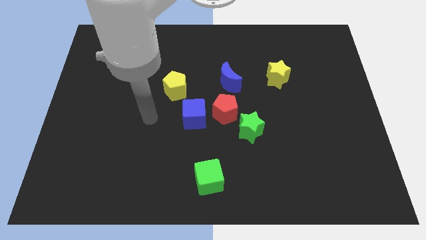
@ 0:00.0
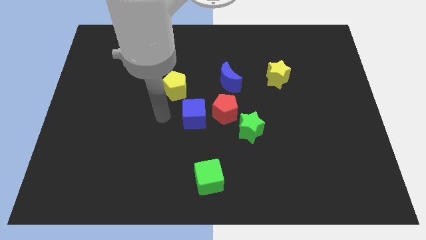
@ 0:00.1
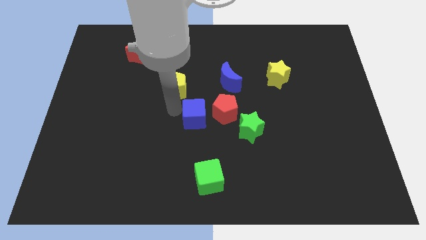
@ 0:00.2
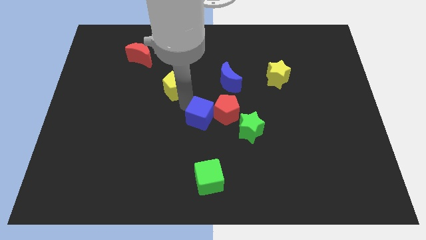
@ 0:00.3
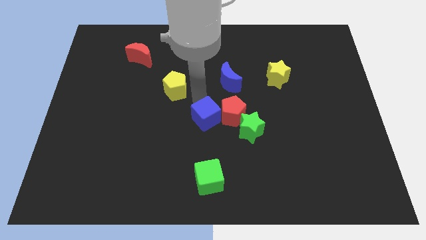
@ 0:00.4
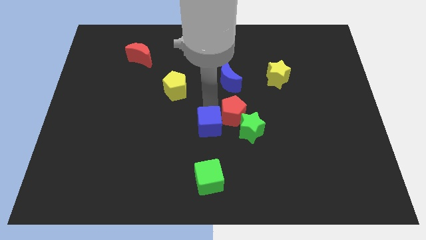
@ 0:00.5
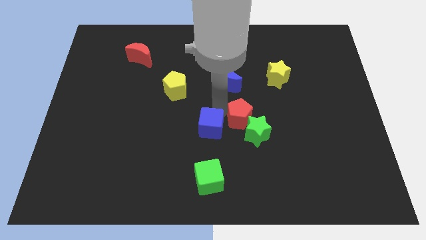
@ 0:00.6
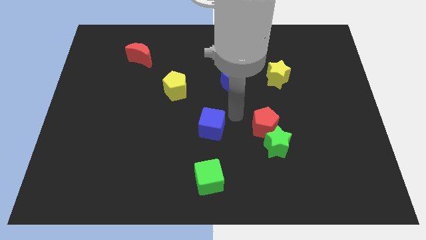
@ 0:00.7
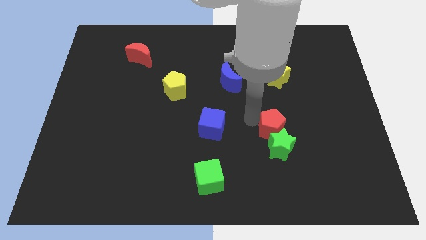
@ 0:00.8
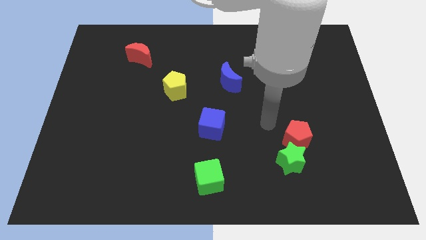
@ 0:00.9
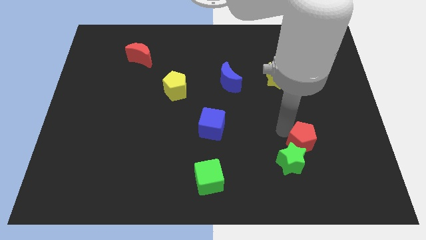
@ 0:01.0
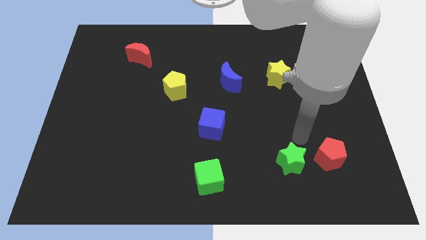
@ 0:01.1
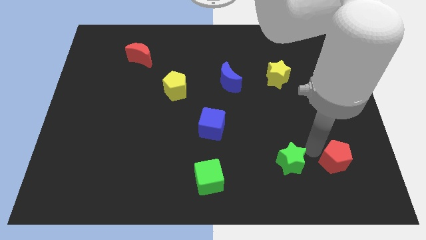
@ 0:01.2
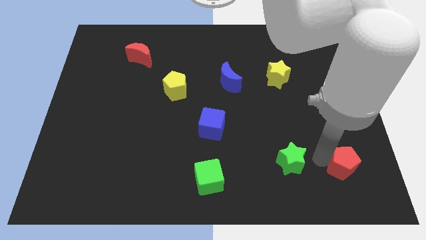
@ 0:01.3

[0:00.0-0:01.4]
pull the green star apart from the red pentagon

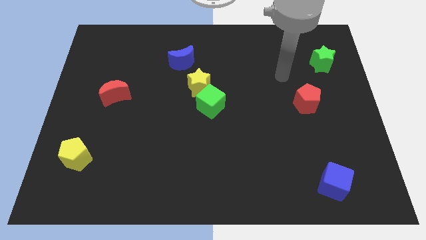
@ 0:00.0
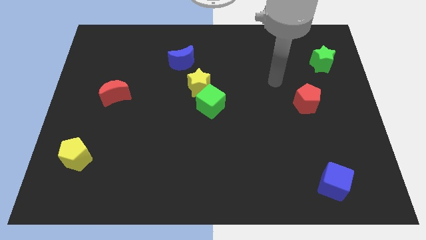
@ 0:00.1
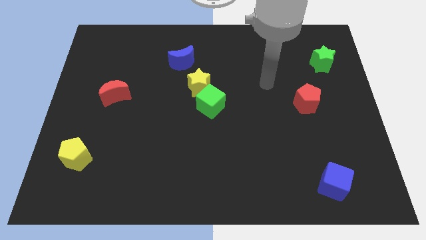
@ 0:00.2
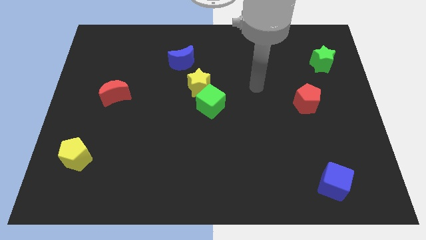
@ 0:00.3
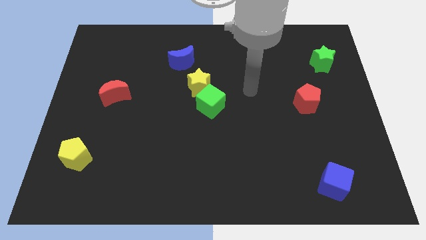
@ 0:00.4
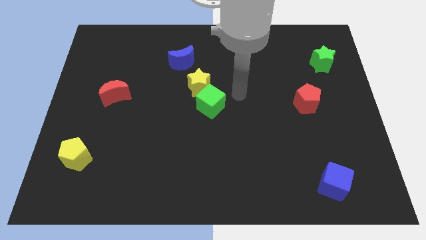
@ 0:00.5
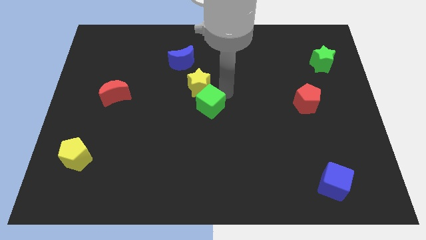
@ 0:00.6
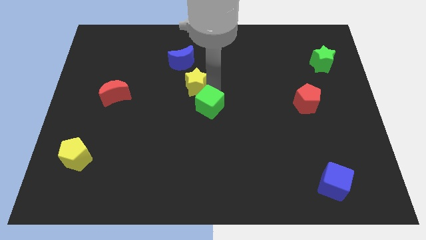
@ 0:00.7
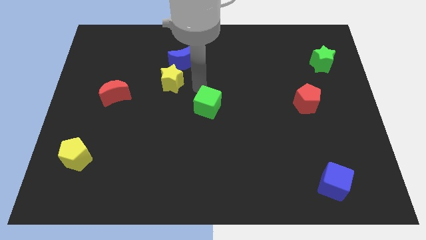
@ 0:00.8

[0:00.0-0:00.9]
pull the green cube apart from the yellow star

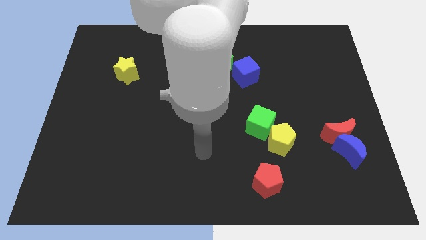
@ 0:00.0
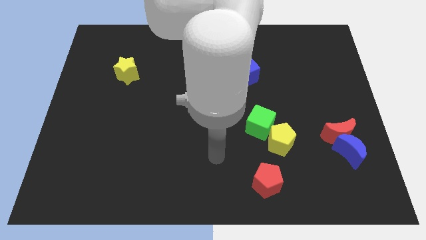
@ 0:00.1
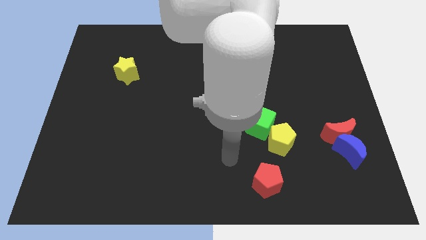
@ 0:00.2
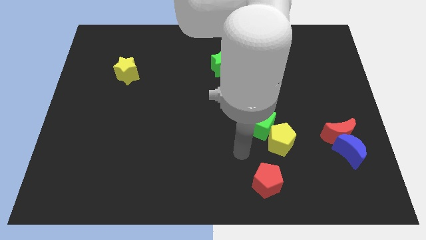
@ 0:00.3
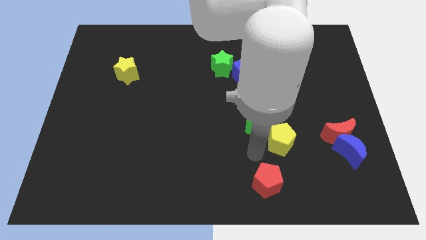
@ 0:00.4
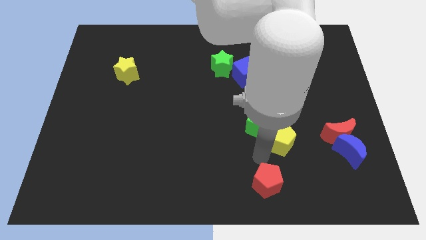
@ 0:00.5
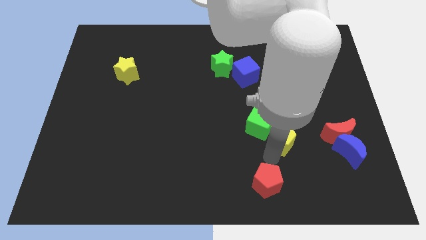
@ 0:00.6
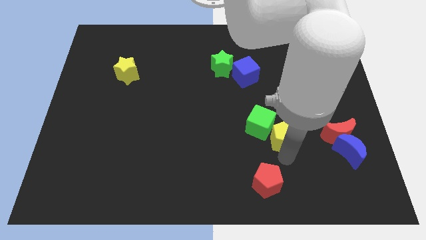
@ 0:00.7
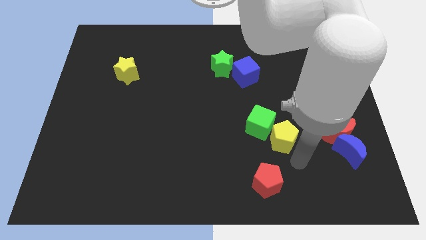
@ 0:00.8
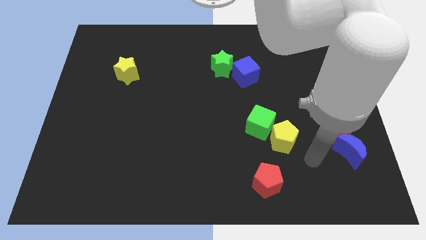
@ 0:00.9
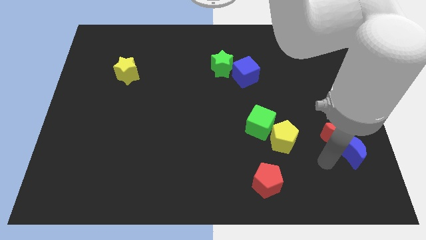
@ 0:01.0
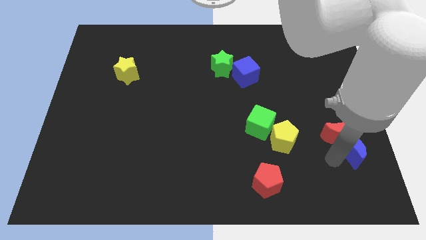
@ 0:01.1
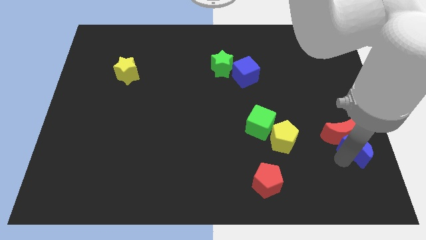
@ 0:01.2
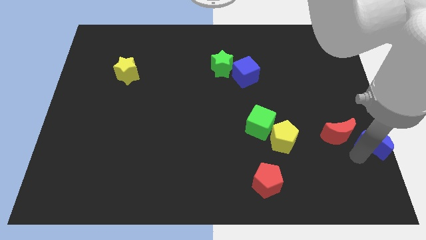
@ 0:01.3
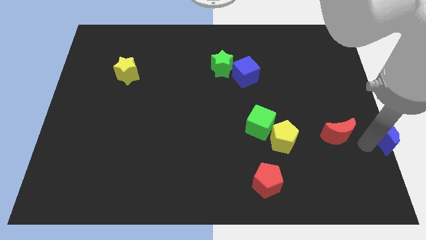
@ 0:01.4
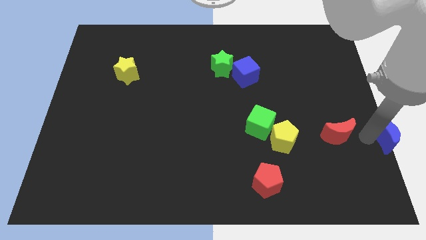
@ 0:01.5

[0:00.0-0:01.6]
move the red moon away from the blue moon

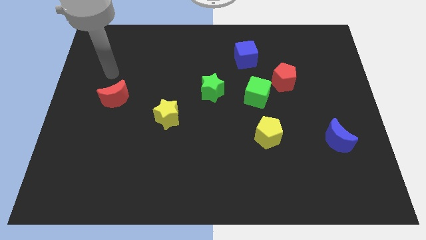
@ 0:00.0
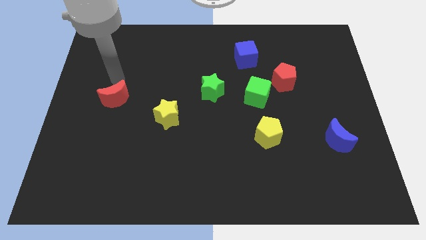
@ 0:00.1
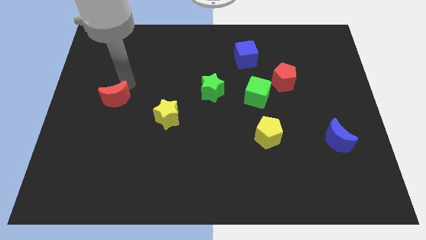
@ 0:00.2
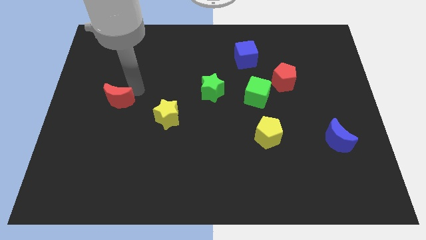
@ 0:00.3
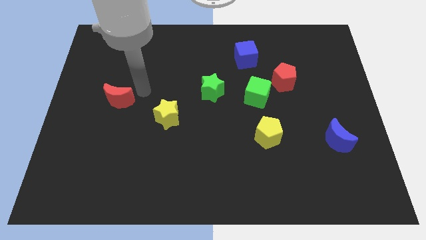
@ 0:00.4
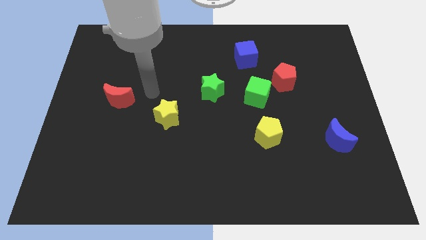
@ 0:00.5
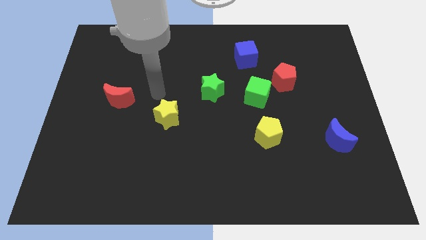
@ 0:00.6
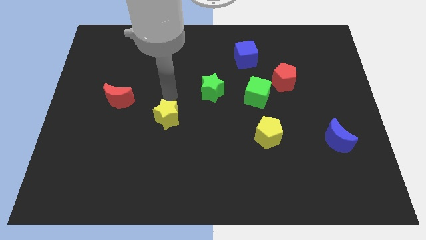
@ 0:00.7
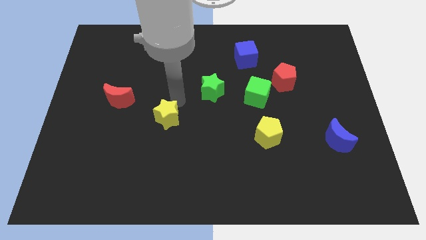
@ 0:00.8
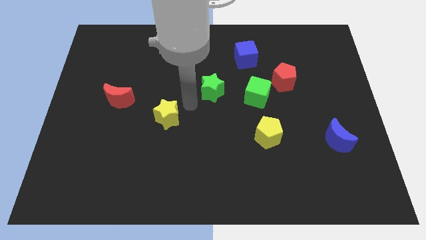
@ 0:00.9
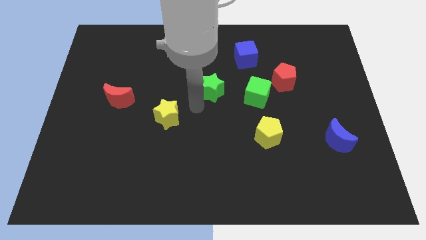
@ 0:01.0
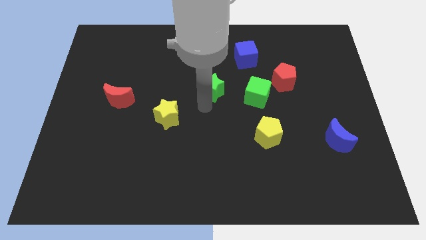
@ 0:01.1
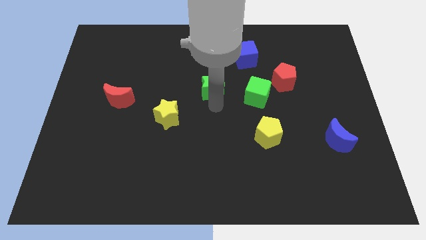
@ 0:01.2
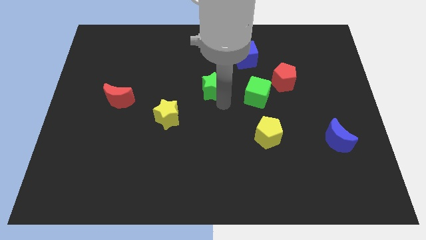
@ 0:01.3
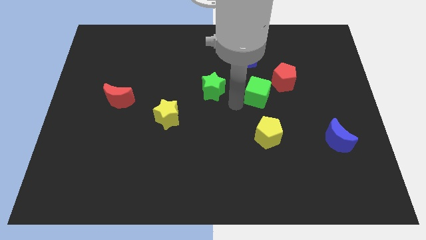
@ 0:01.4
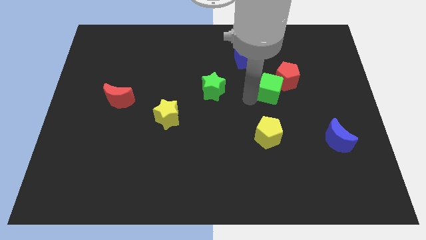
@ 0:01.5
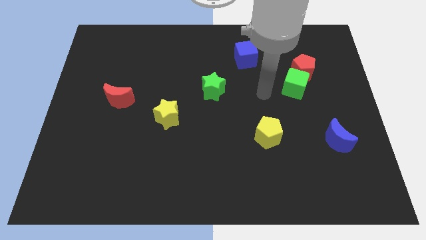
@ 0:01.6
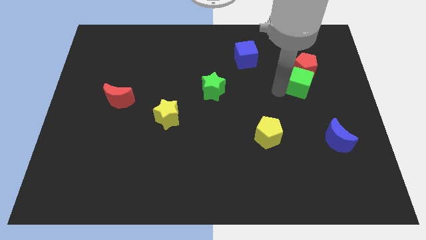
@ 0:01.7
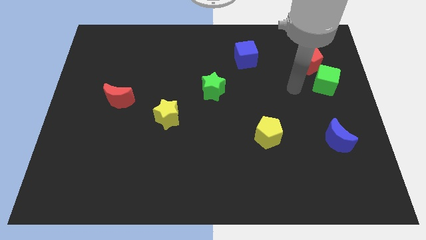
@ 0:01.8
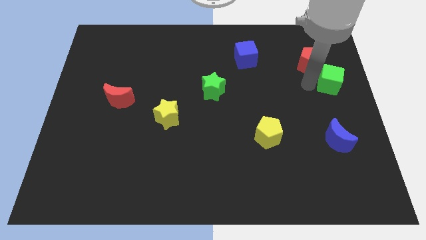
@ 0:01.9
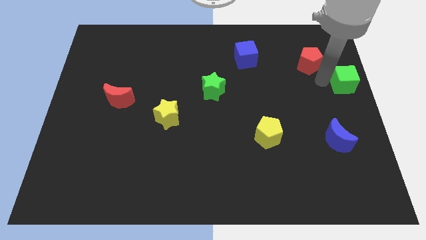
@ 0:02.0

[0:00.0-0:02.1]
move the red pentagon away from the green cube

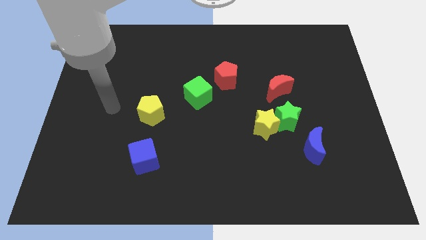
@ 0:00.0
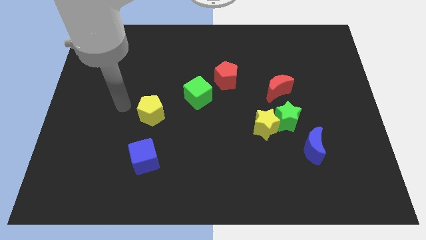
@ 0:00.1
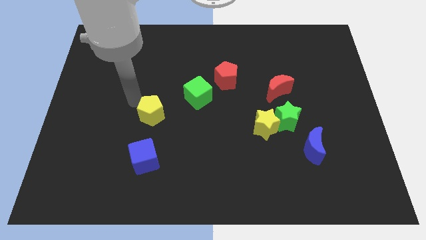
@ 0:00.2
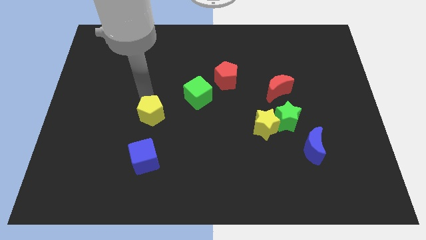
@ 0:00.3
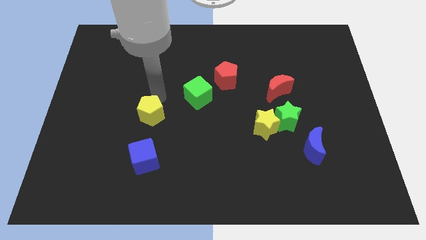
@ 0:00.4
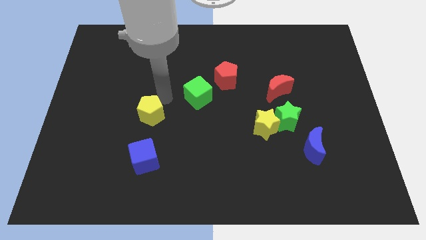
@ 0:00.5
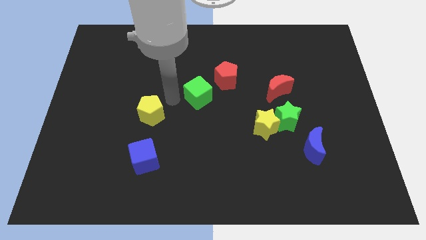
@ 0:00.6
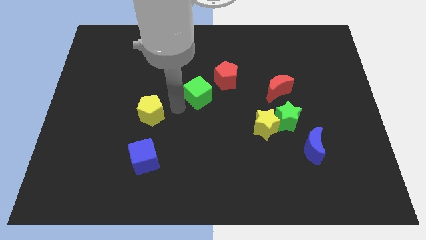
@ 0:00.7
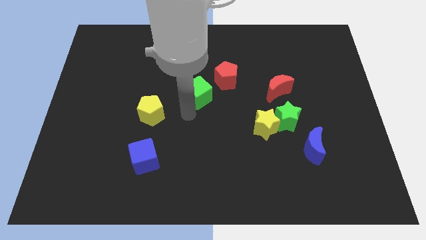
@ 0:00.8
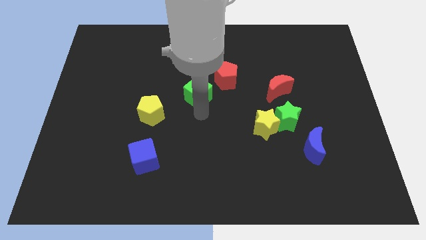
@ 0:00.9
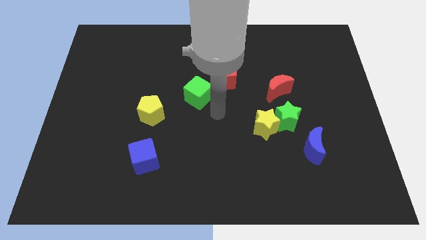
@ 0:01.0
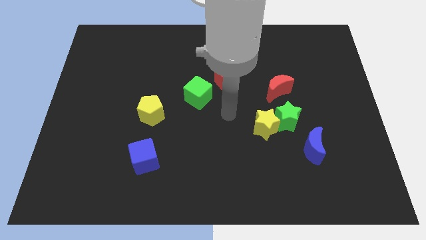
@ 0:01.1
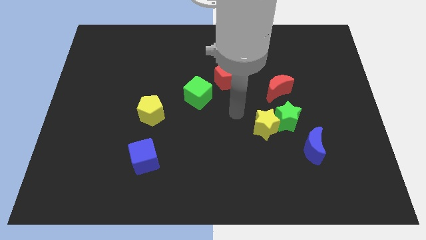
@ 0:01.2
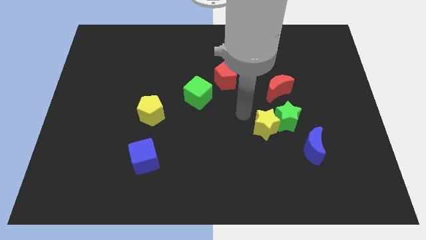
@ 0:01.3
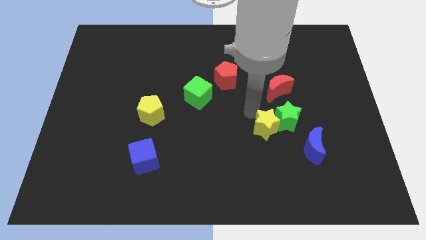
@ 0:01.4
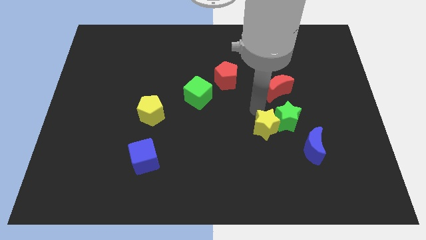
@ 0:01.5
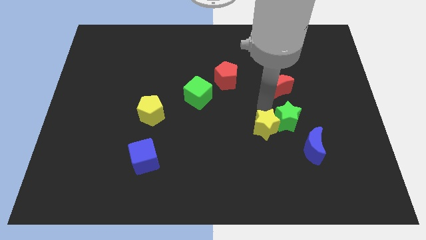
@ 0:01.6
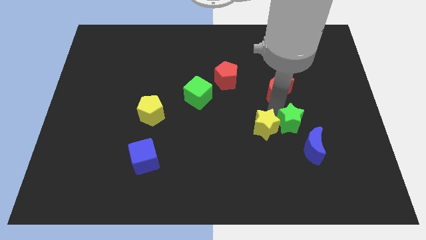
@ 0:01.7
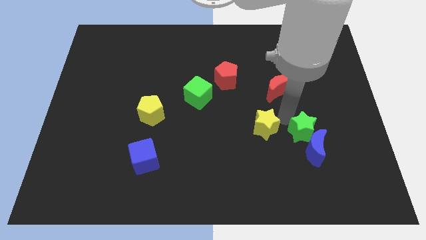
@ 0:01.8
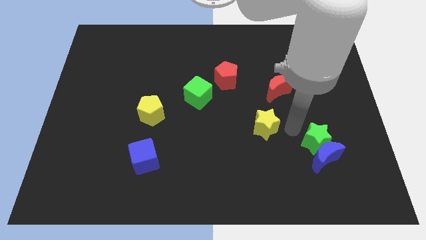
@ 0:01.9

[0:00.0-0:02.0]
move the yellow star away from the green star

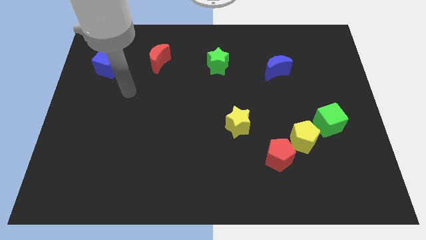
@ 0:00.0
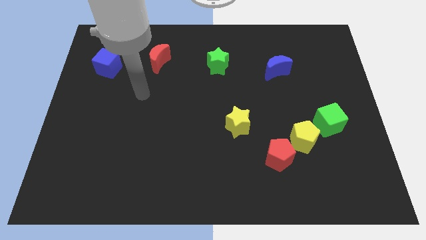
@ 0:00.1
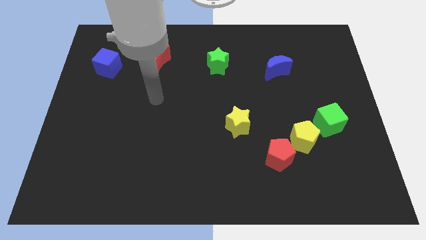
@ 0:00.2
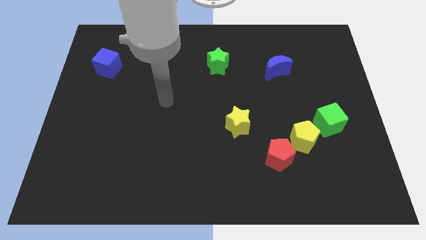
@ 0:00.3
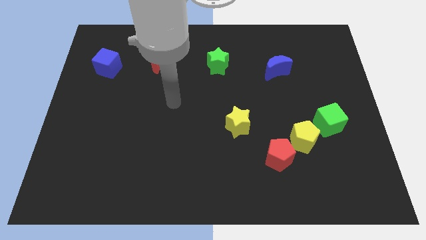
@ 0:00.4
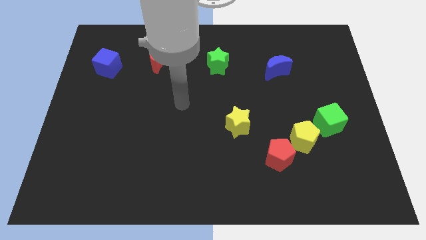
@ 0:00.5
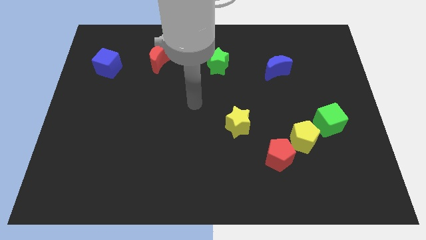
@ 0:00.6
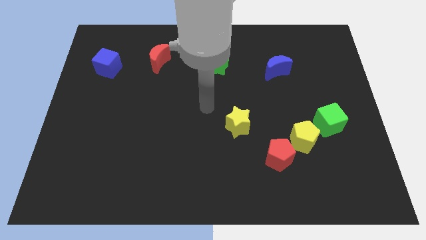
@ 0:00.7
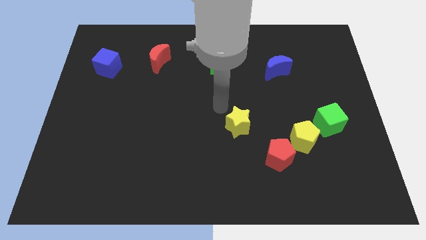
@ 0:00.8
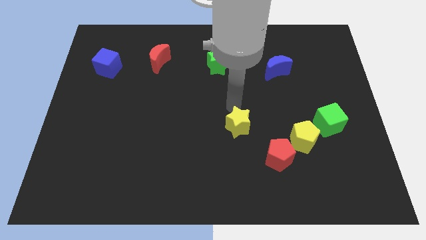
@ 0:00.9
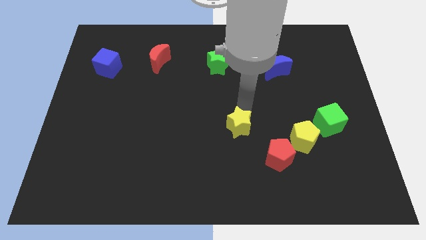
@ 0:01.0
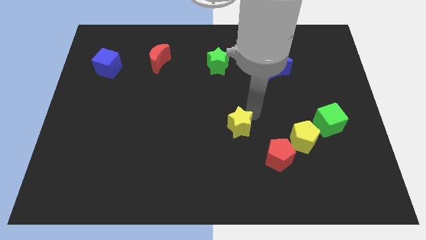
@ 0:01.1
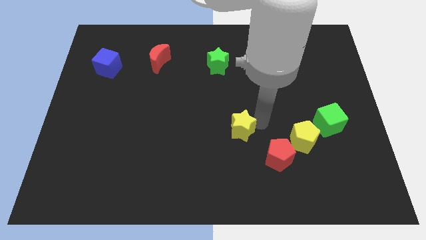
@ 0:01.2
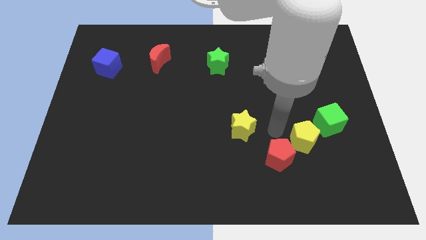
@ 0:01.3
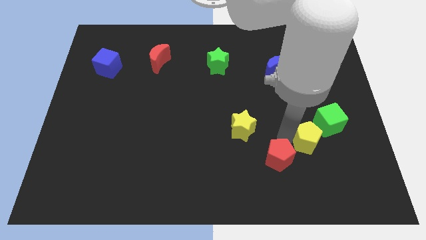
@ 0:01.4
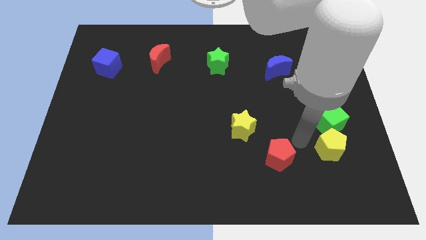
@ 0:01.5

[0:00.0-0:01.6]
pull the red pentagon apart from the yellow pentagon
